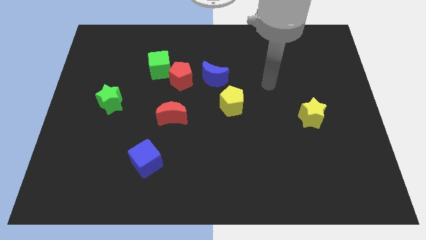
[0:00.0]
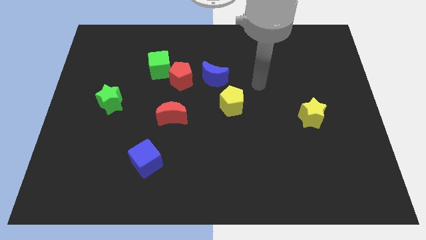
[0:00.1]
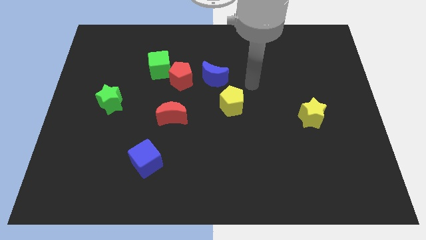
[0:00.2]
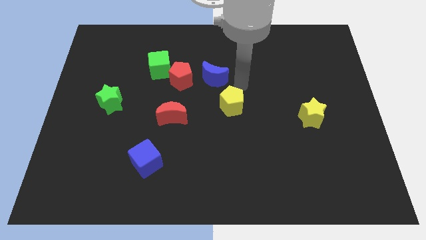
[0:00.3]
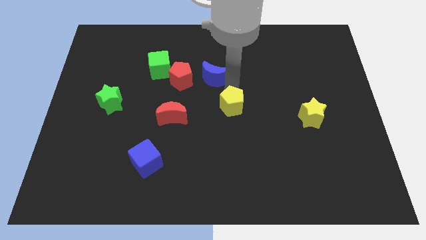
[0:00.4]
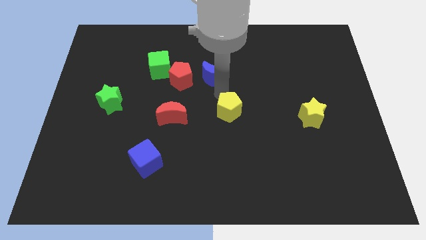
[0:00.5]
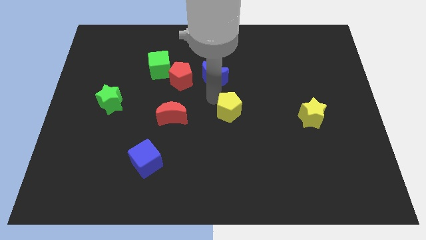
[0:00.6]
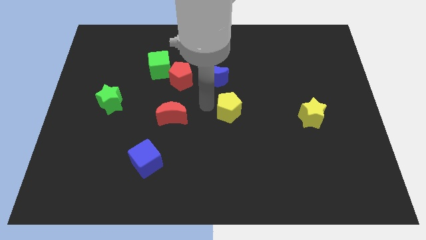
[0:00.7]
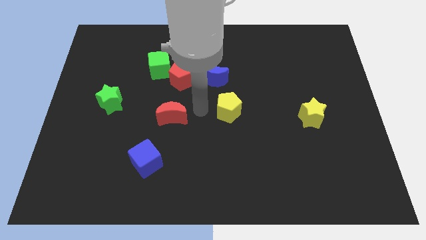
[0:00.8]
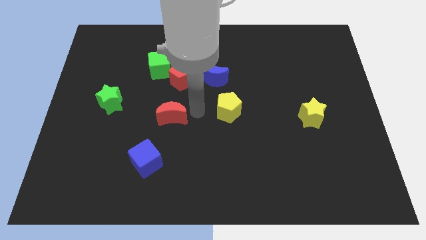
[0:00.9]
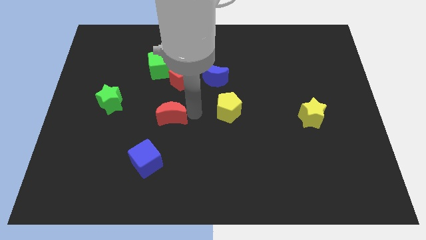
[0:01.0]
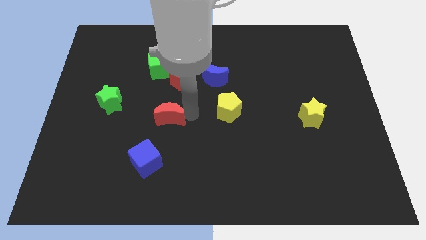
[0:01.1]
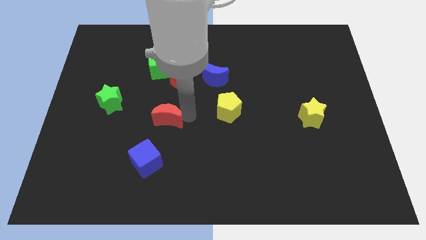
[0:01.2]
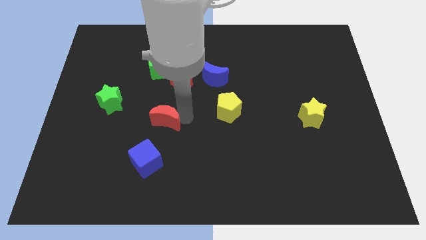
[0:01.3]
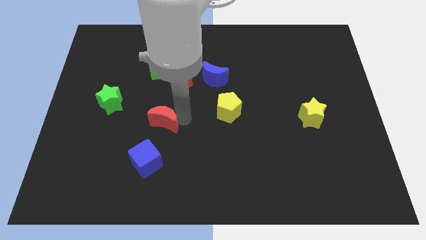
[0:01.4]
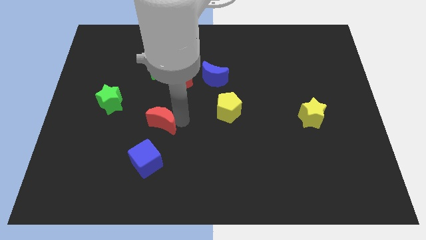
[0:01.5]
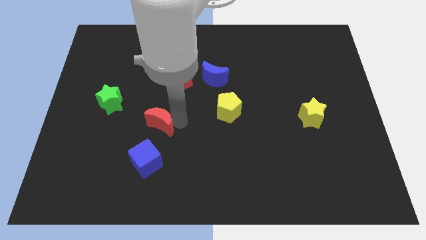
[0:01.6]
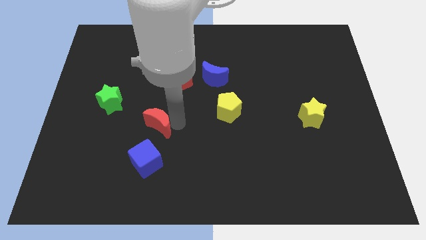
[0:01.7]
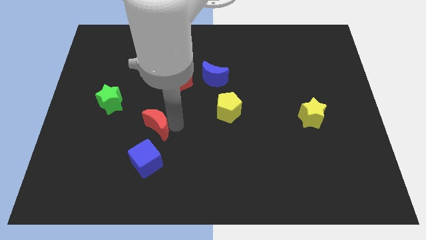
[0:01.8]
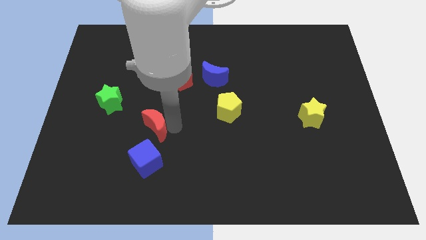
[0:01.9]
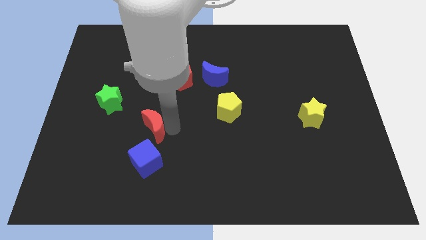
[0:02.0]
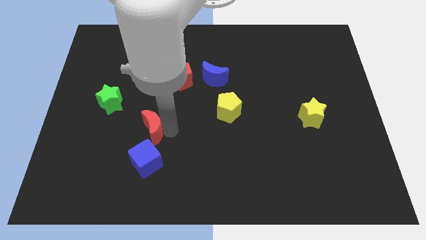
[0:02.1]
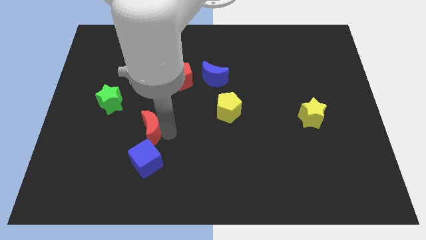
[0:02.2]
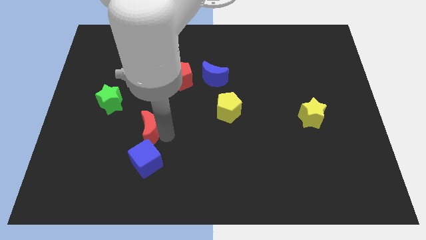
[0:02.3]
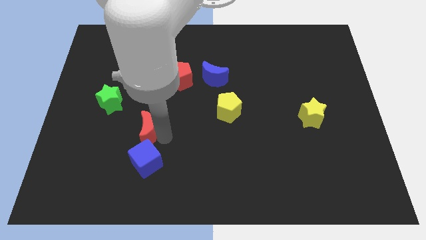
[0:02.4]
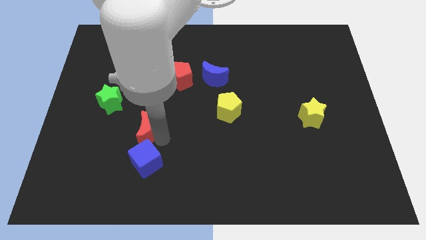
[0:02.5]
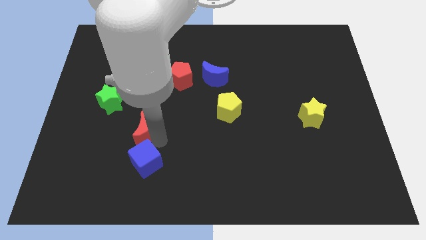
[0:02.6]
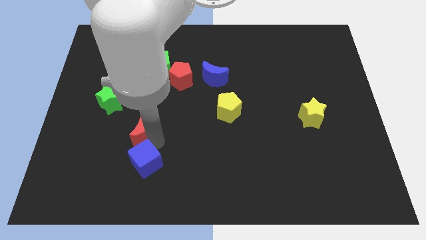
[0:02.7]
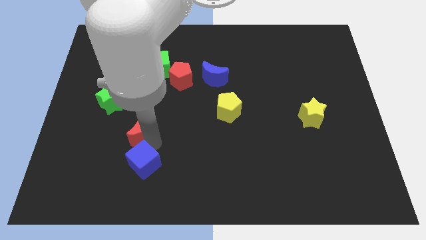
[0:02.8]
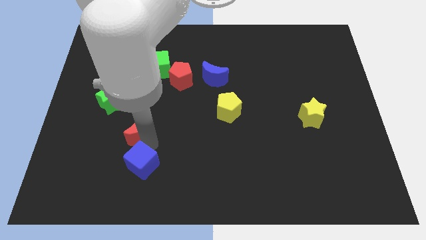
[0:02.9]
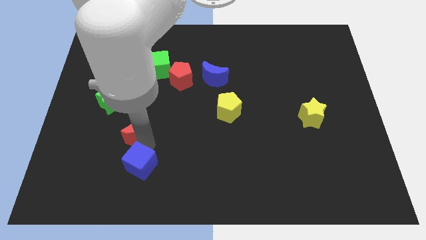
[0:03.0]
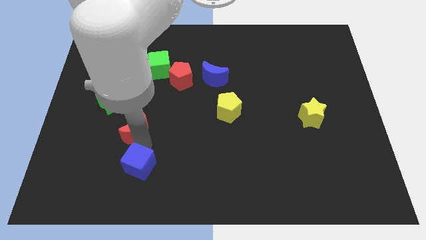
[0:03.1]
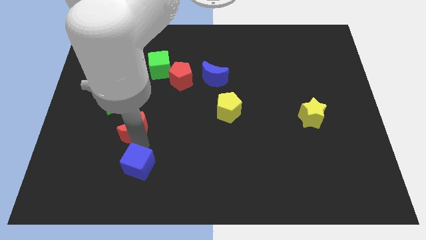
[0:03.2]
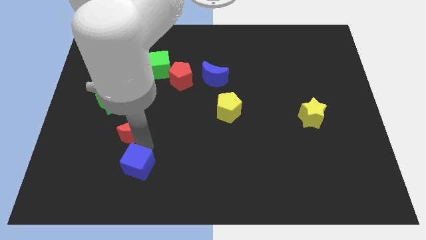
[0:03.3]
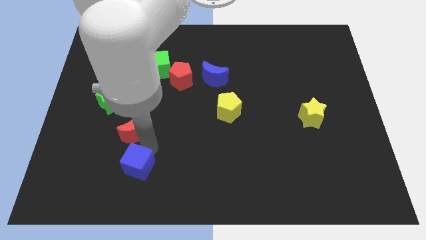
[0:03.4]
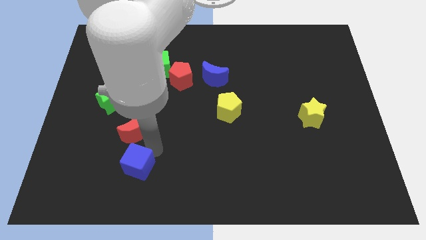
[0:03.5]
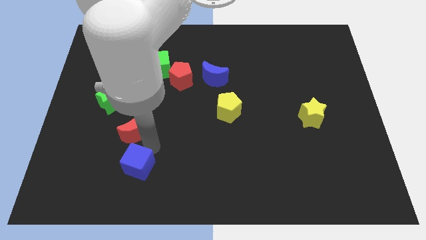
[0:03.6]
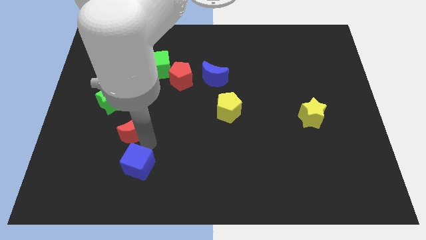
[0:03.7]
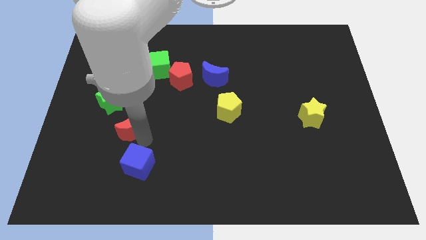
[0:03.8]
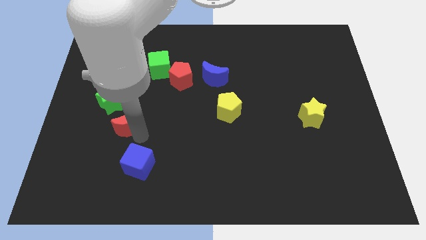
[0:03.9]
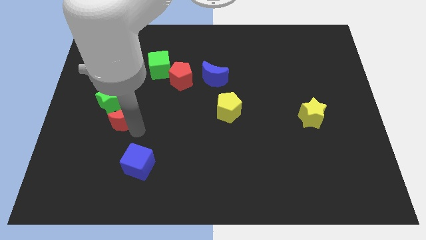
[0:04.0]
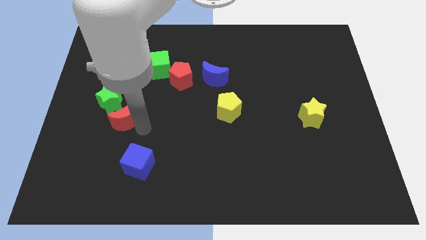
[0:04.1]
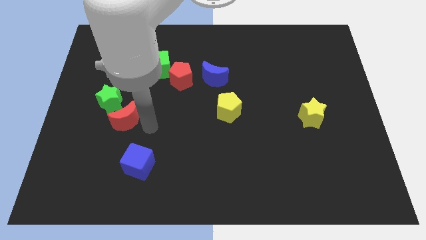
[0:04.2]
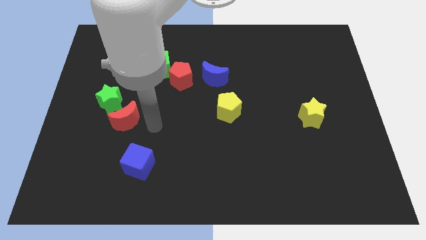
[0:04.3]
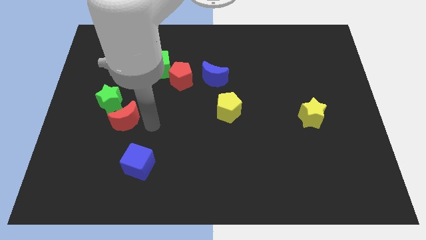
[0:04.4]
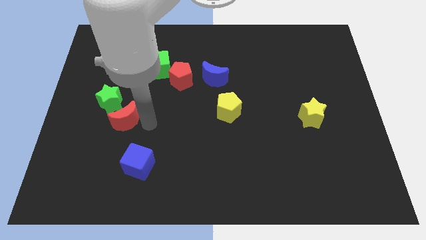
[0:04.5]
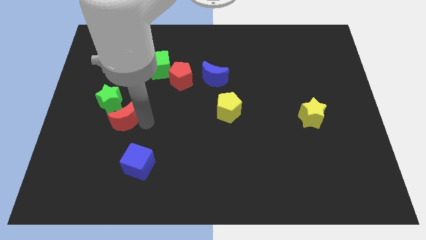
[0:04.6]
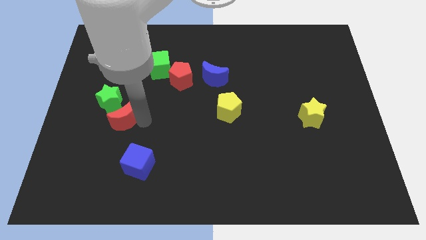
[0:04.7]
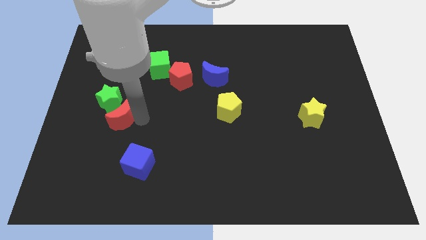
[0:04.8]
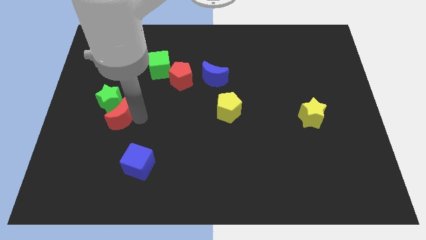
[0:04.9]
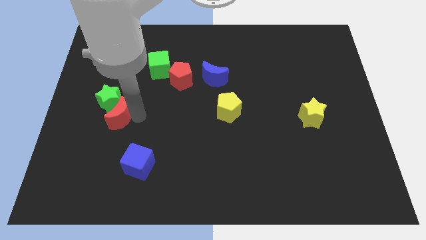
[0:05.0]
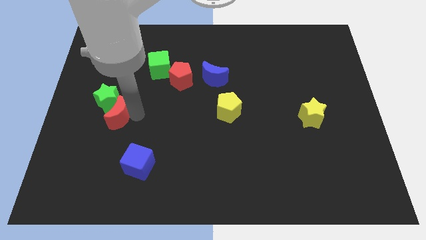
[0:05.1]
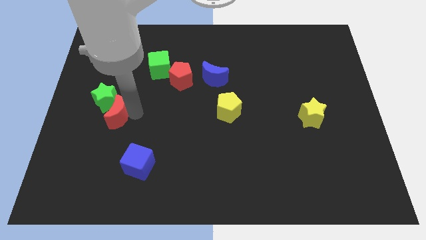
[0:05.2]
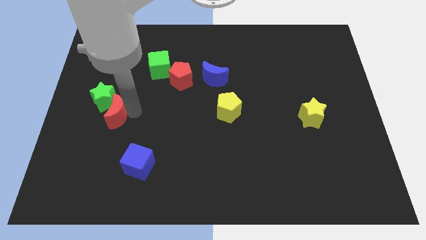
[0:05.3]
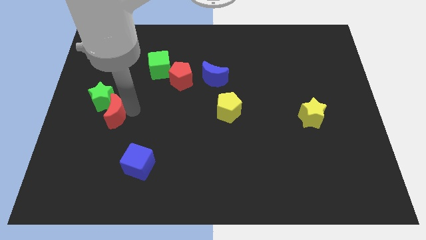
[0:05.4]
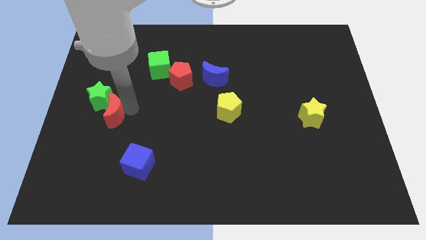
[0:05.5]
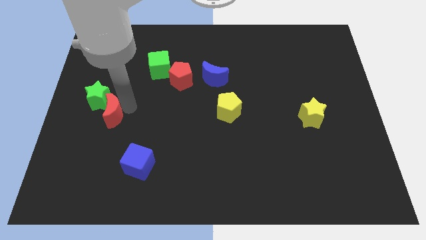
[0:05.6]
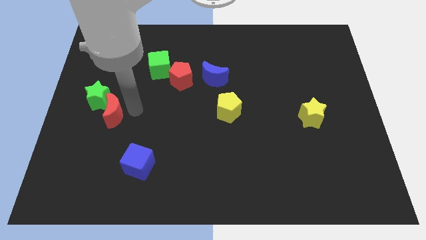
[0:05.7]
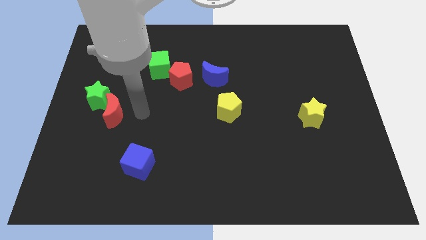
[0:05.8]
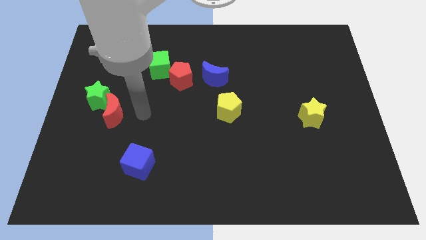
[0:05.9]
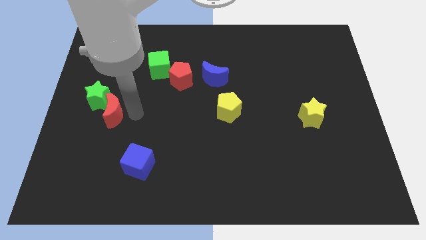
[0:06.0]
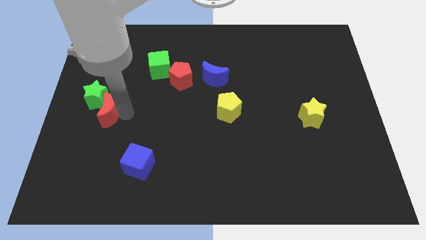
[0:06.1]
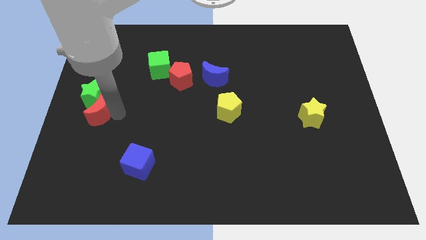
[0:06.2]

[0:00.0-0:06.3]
put the red moon to the left side

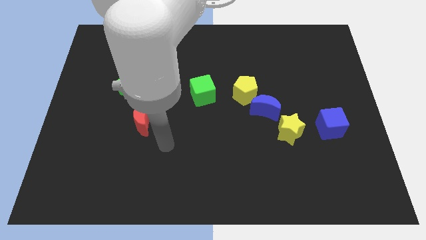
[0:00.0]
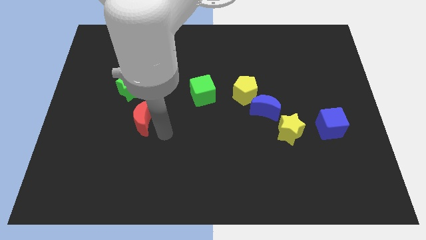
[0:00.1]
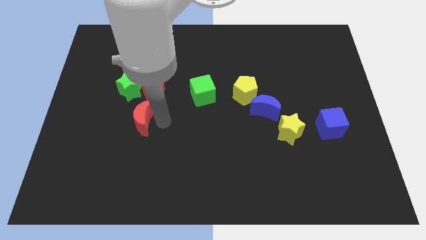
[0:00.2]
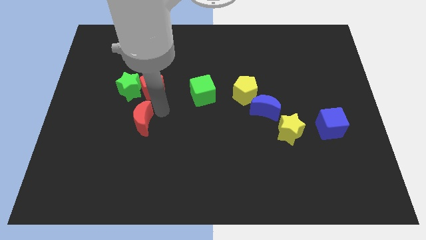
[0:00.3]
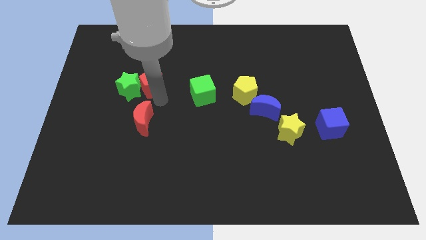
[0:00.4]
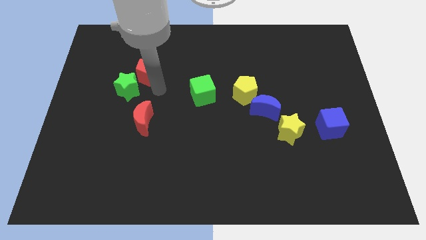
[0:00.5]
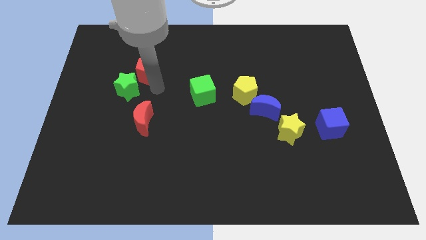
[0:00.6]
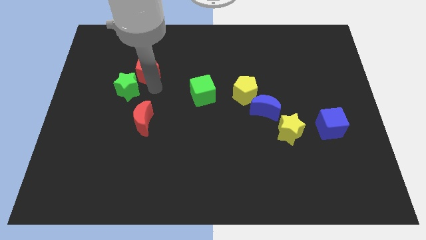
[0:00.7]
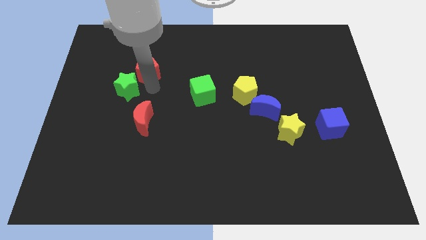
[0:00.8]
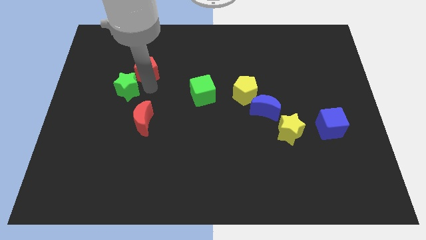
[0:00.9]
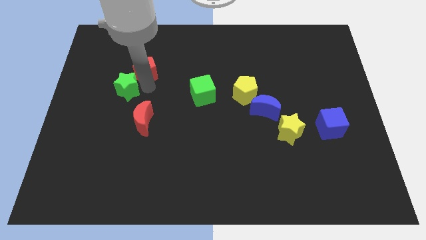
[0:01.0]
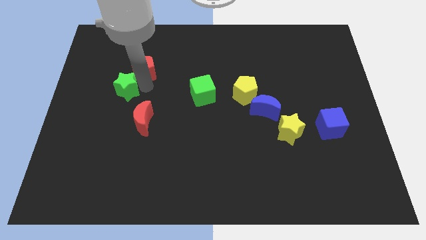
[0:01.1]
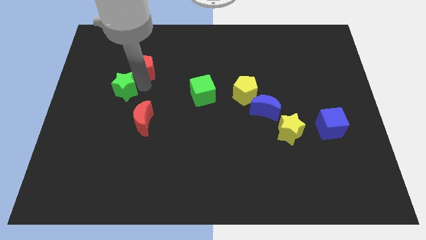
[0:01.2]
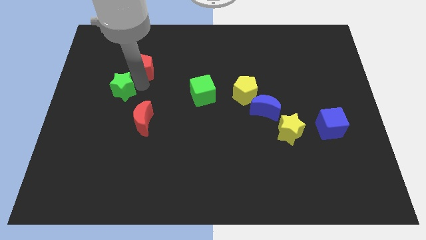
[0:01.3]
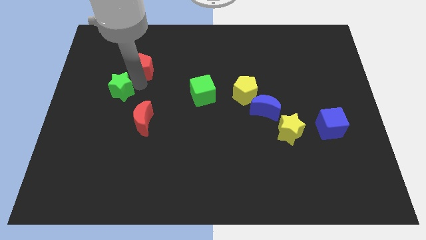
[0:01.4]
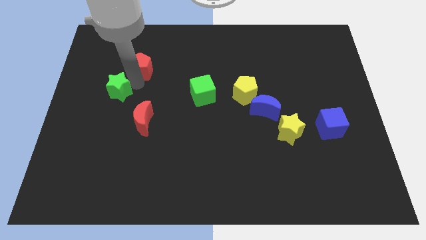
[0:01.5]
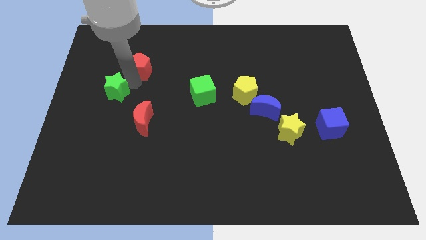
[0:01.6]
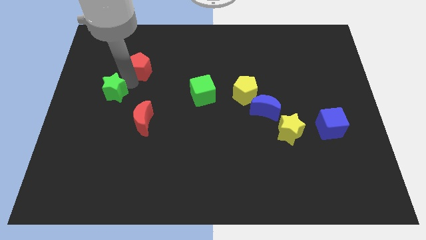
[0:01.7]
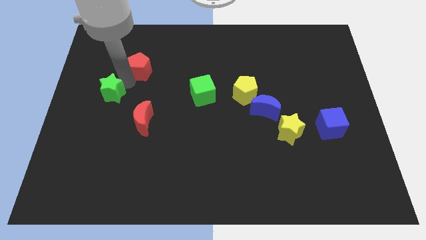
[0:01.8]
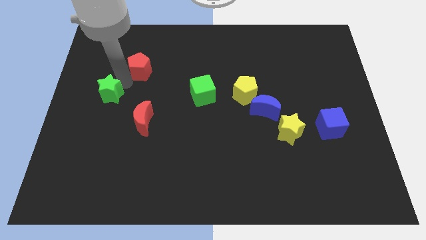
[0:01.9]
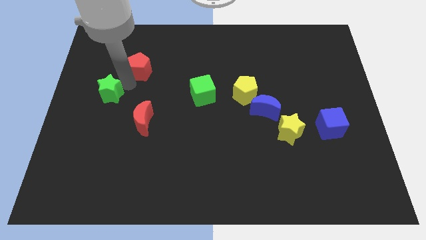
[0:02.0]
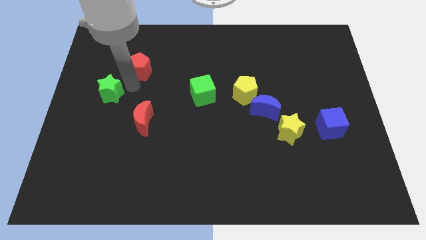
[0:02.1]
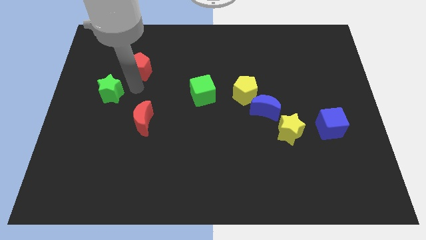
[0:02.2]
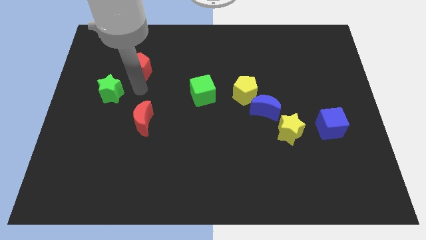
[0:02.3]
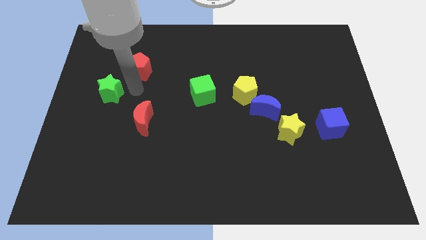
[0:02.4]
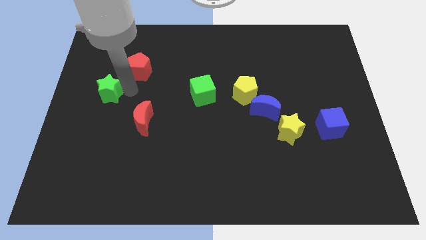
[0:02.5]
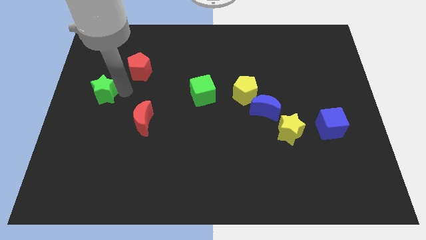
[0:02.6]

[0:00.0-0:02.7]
move the green star to the left side
